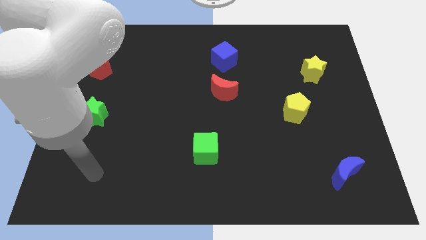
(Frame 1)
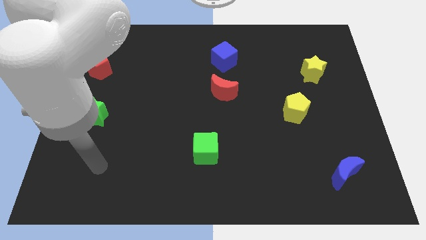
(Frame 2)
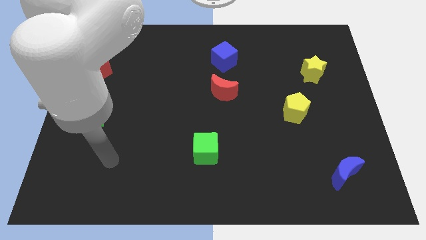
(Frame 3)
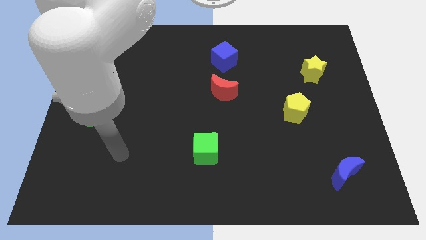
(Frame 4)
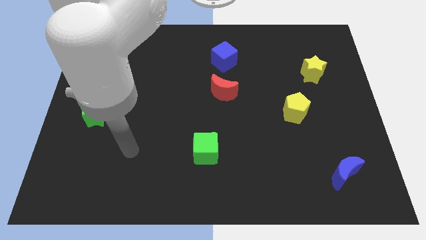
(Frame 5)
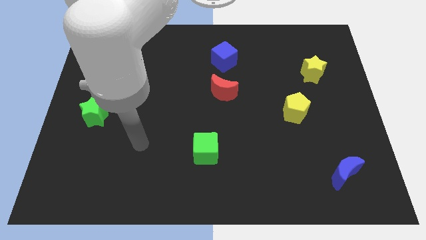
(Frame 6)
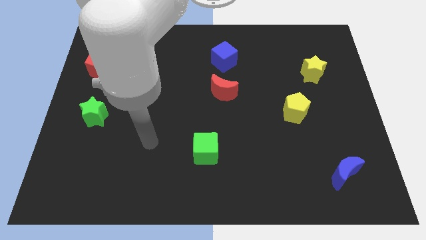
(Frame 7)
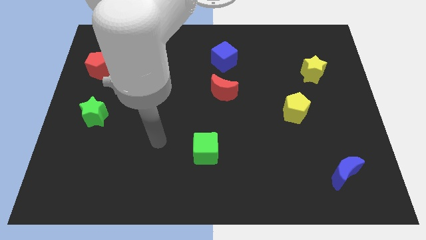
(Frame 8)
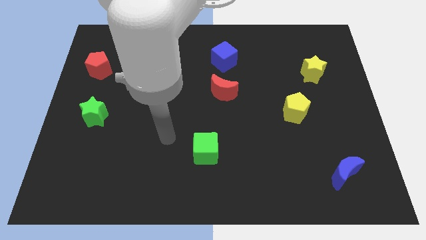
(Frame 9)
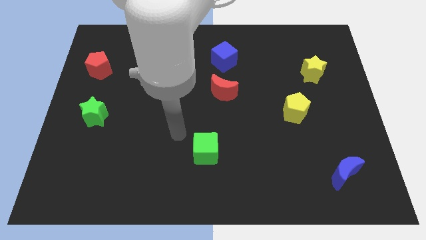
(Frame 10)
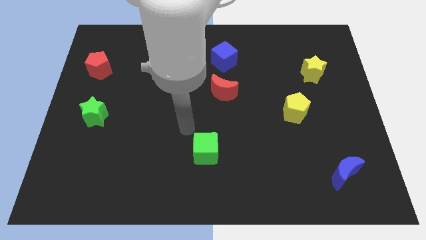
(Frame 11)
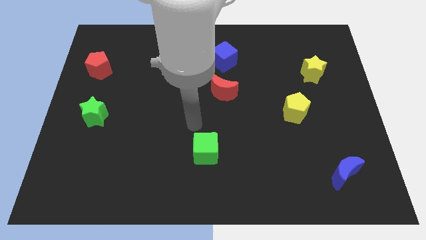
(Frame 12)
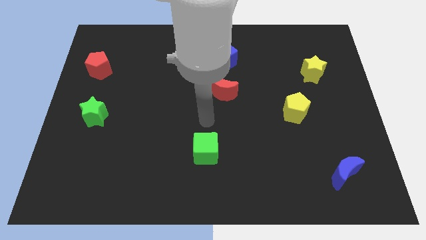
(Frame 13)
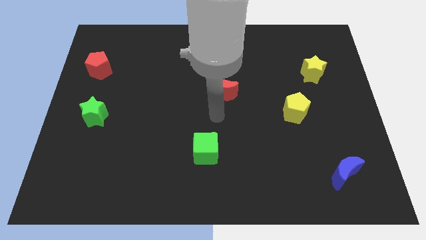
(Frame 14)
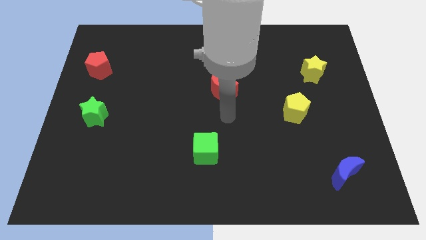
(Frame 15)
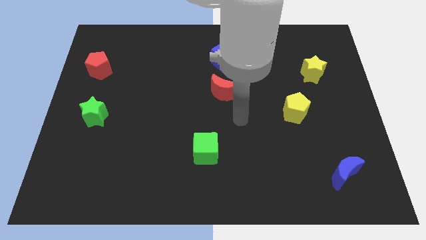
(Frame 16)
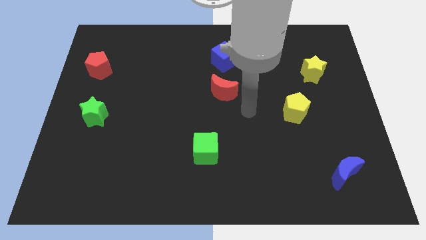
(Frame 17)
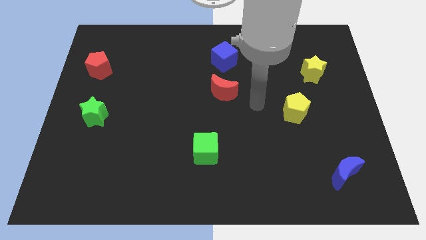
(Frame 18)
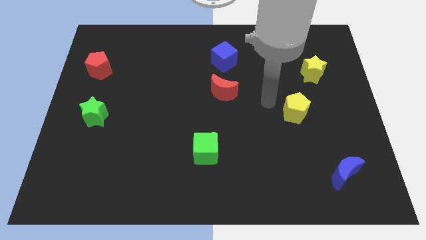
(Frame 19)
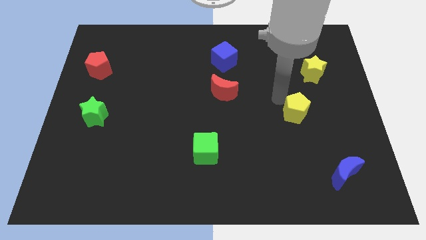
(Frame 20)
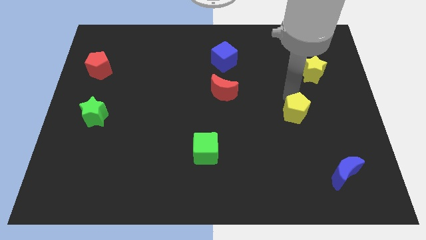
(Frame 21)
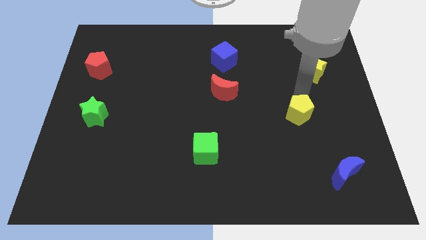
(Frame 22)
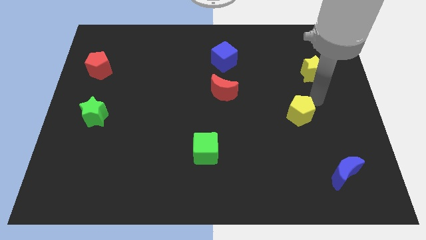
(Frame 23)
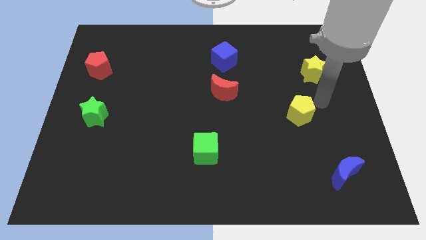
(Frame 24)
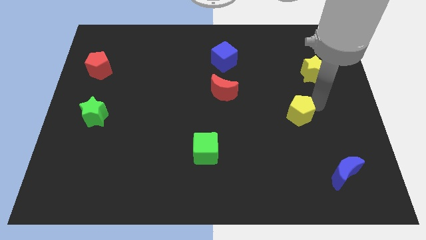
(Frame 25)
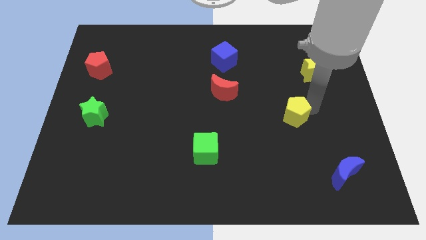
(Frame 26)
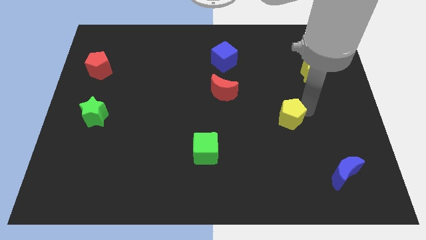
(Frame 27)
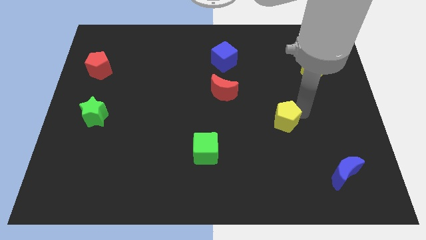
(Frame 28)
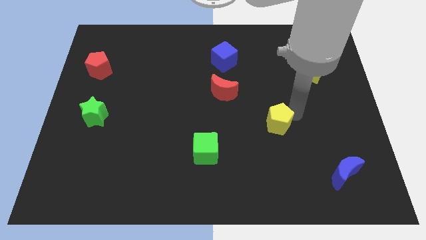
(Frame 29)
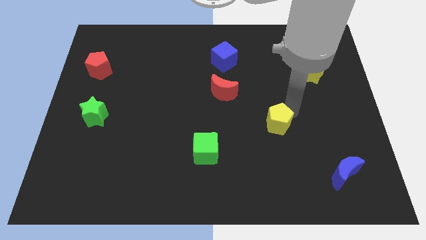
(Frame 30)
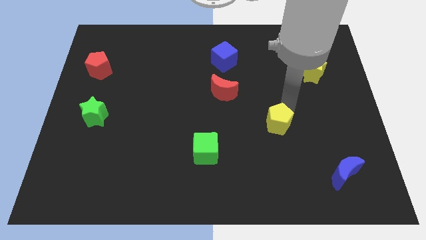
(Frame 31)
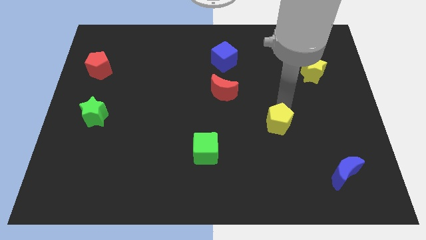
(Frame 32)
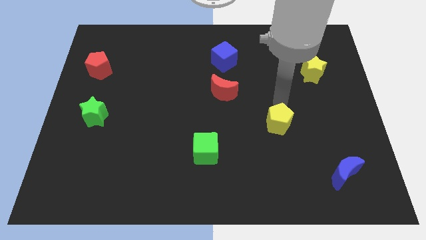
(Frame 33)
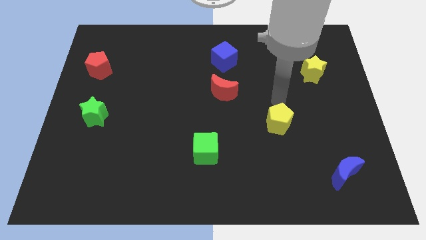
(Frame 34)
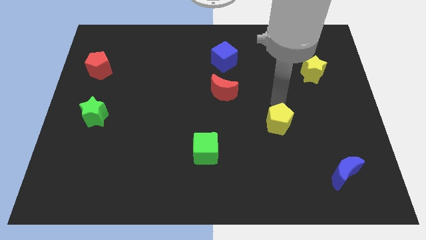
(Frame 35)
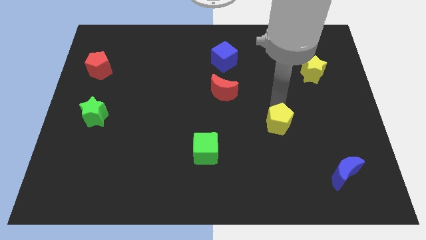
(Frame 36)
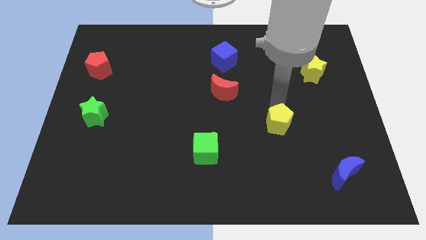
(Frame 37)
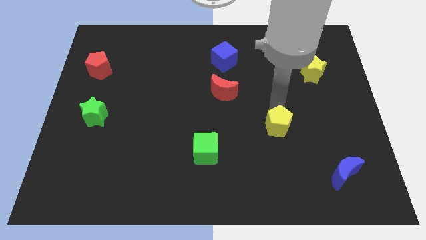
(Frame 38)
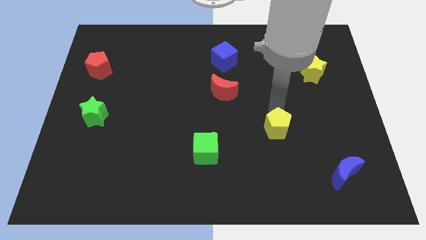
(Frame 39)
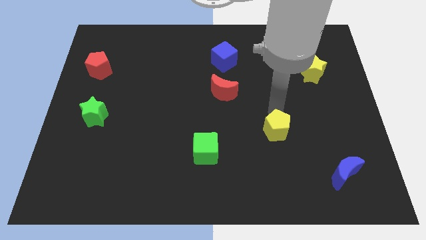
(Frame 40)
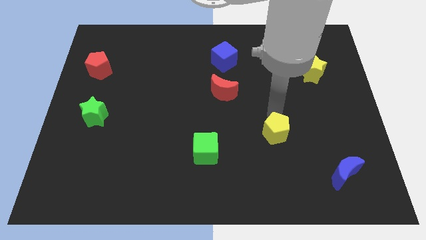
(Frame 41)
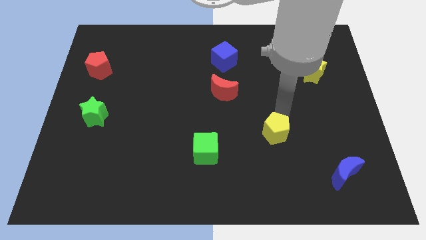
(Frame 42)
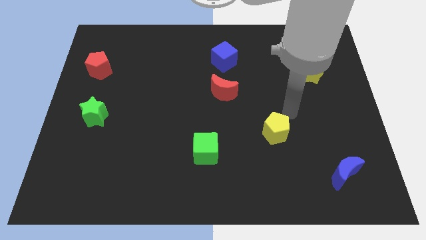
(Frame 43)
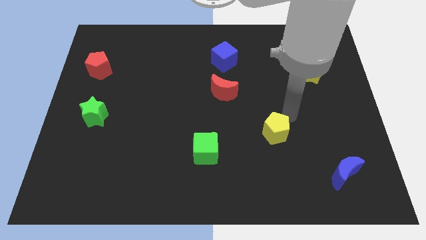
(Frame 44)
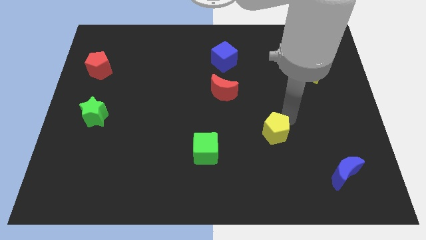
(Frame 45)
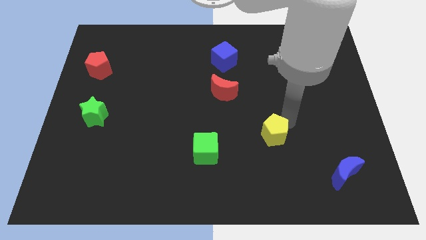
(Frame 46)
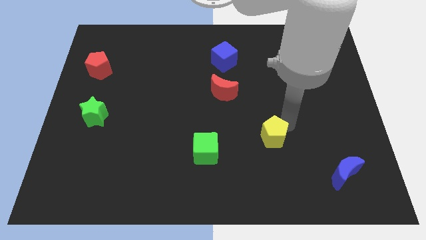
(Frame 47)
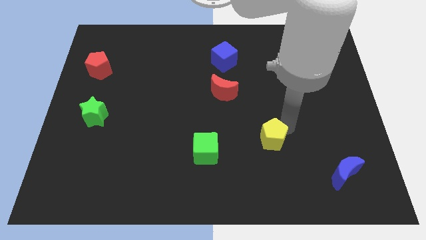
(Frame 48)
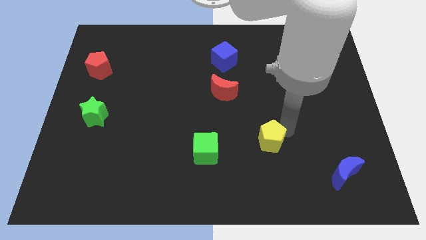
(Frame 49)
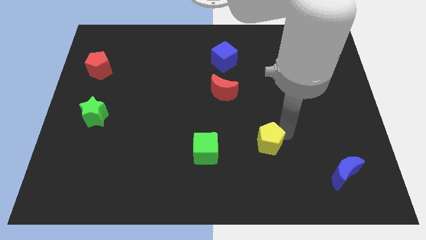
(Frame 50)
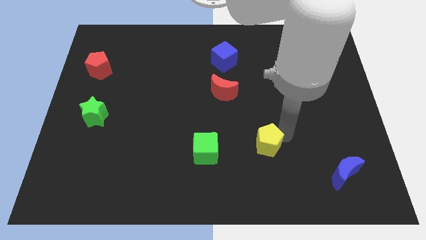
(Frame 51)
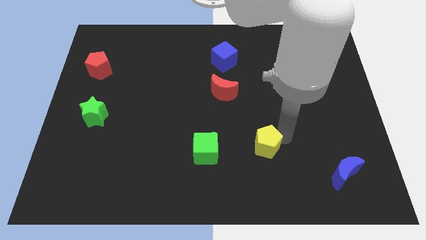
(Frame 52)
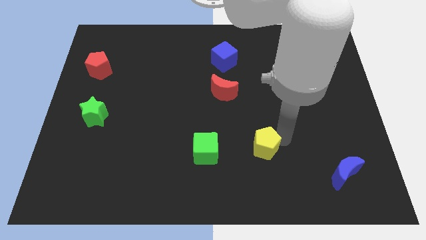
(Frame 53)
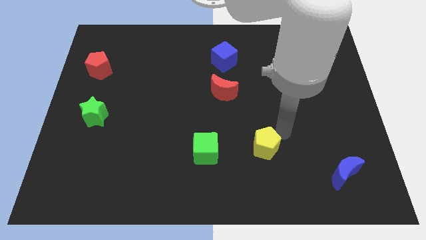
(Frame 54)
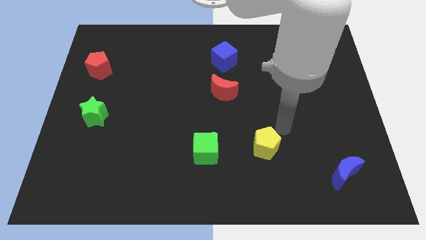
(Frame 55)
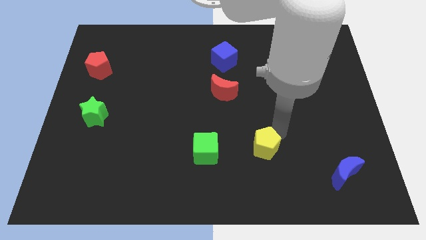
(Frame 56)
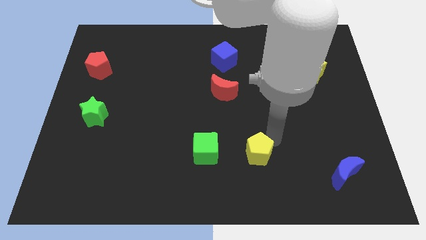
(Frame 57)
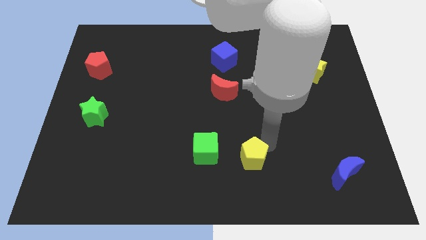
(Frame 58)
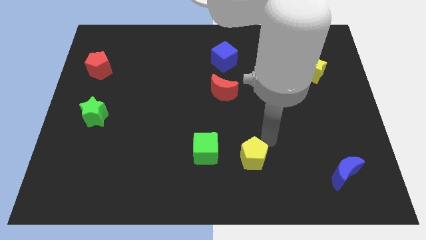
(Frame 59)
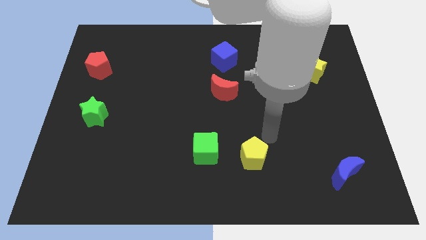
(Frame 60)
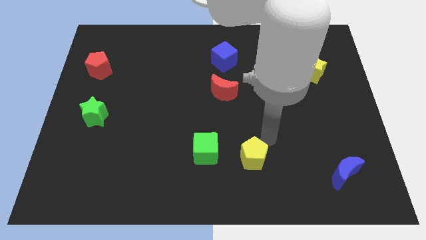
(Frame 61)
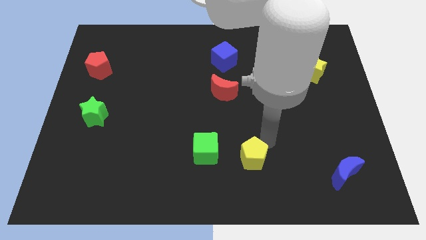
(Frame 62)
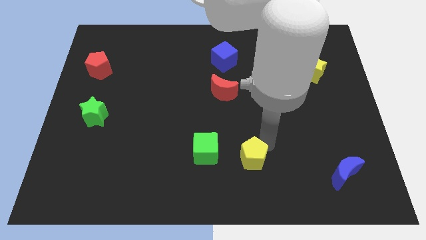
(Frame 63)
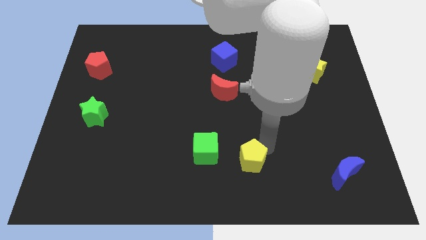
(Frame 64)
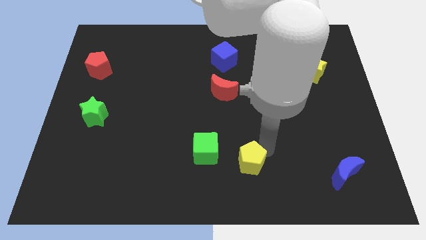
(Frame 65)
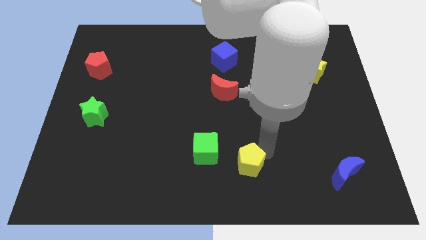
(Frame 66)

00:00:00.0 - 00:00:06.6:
push the yellow pentagon to the bottom side
